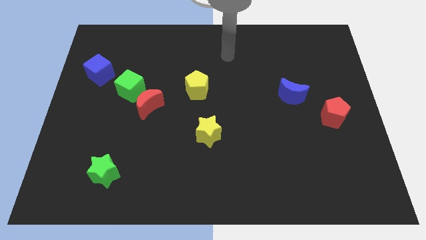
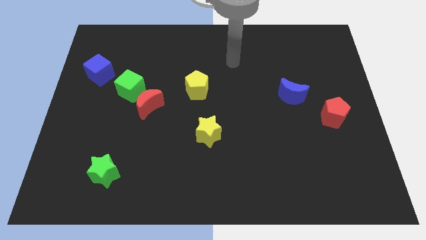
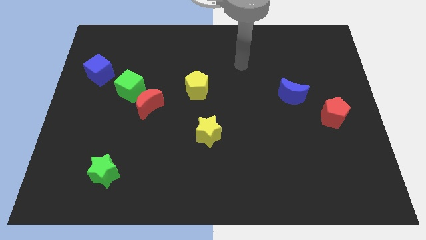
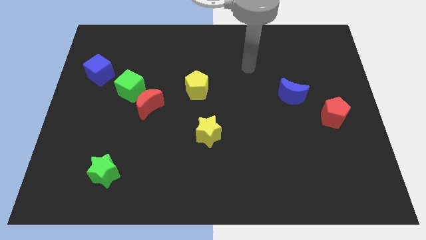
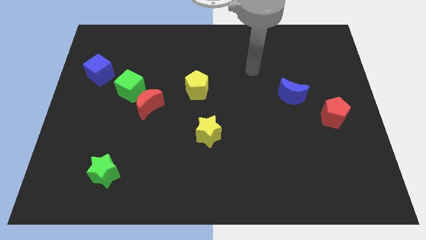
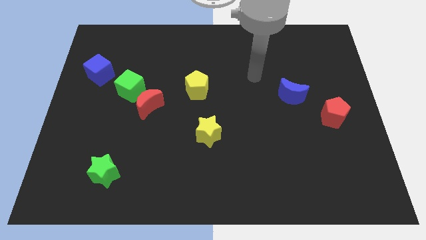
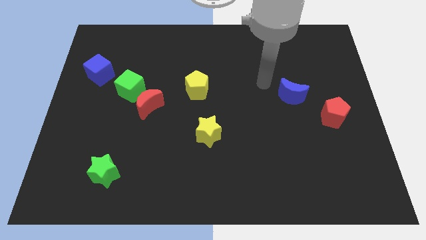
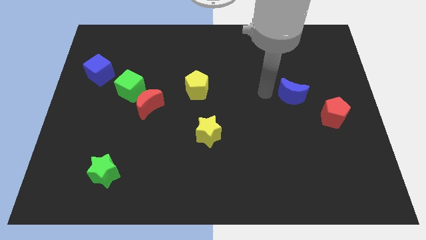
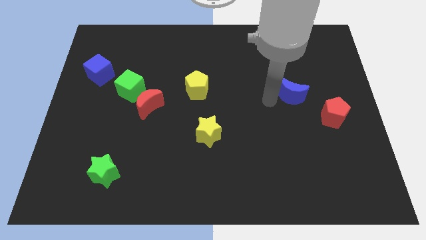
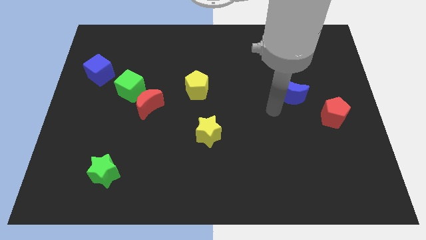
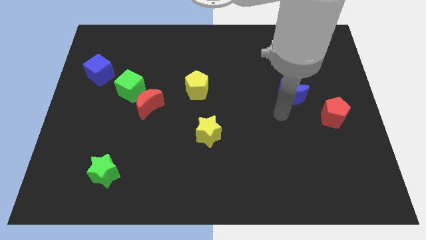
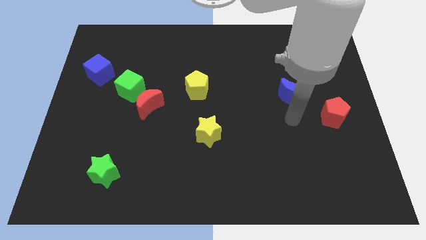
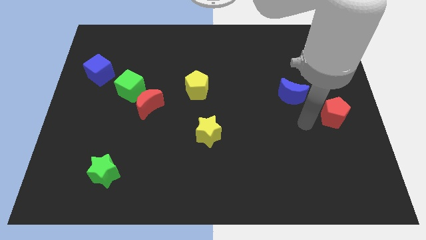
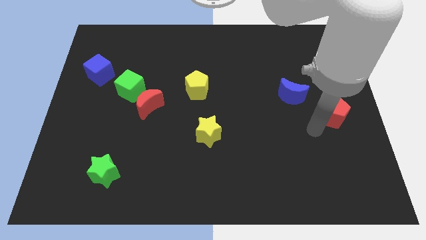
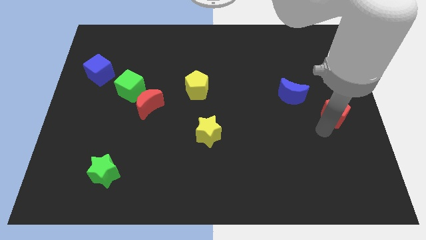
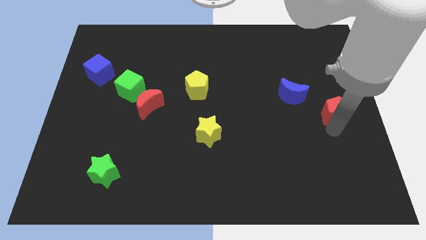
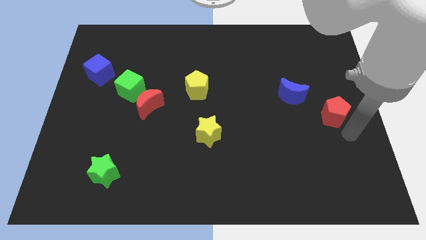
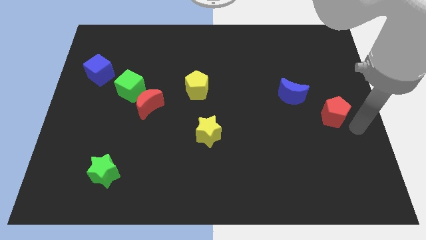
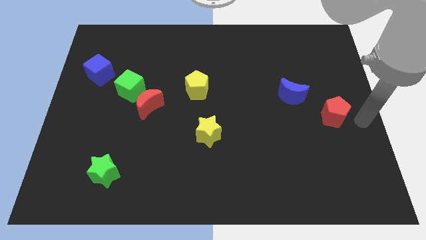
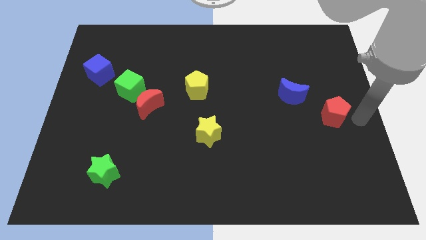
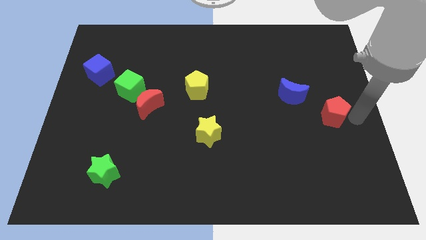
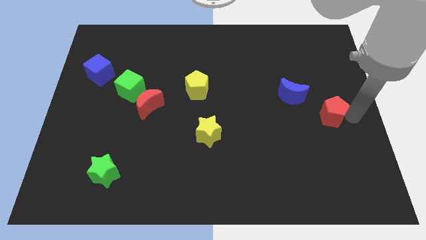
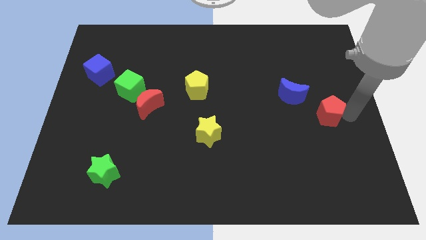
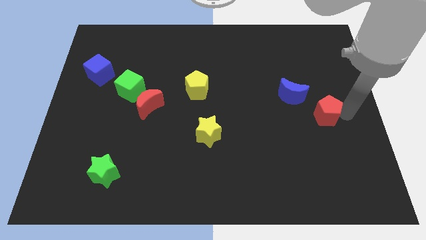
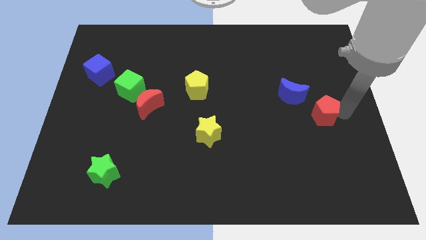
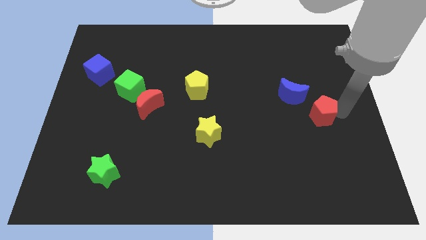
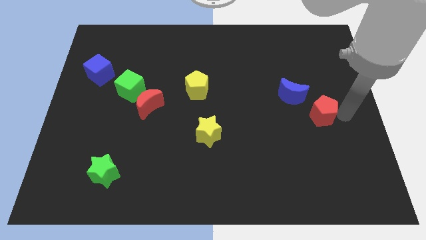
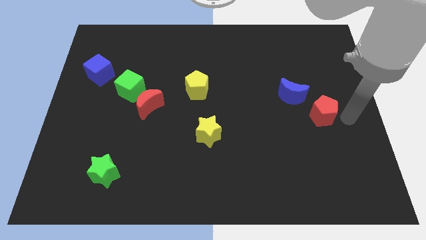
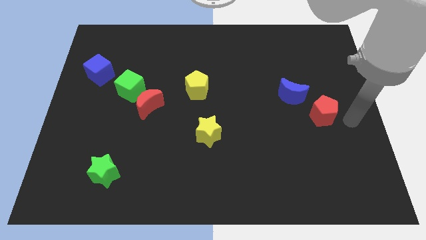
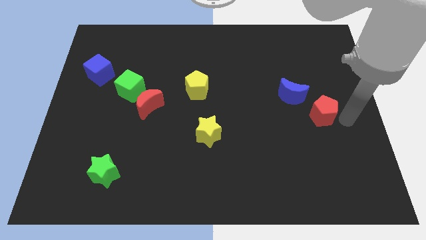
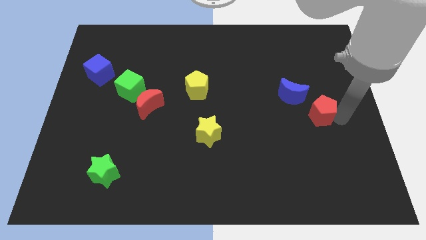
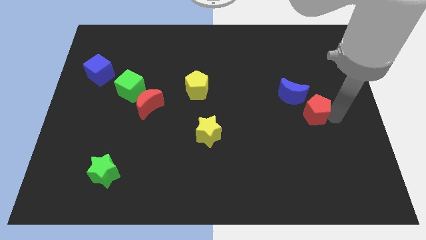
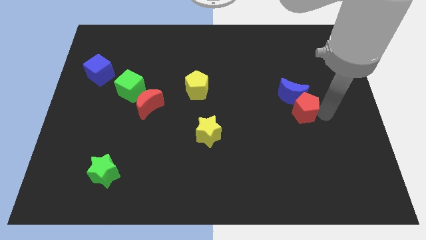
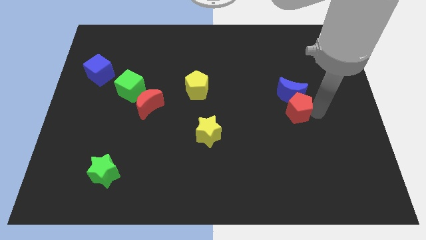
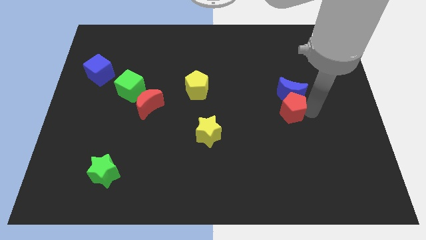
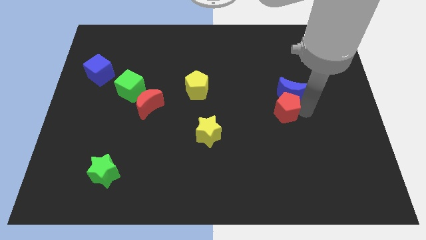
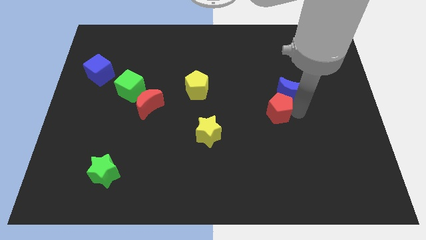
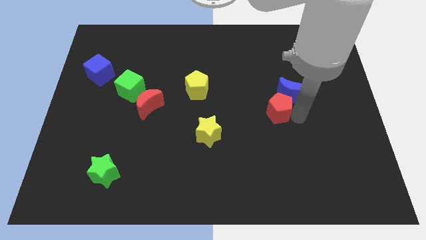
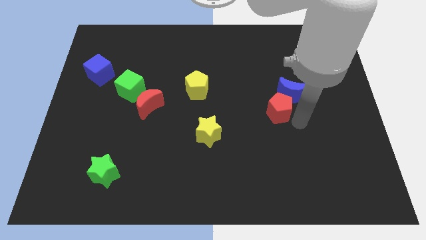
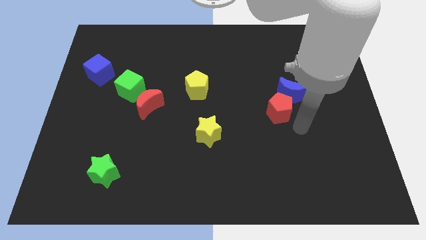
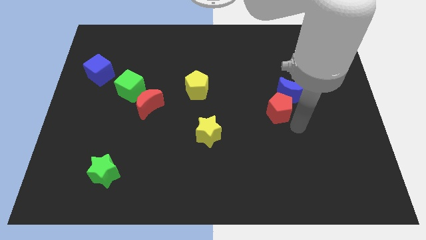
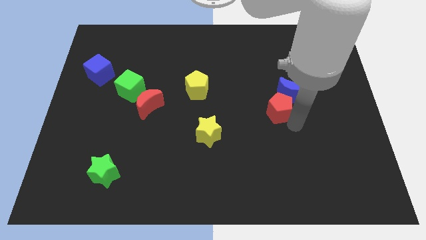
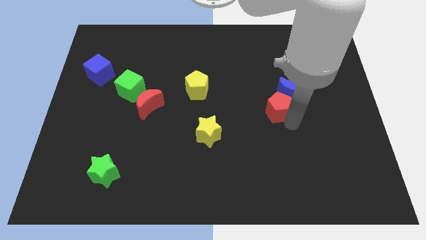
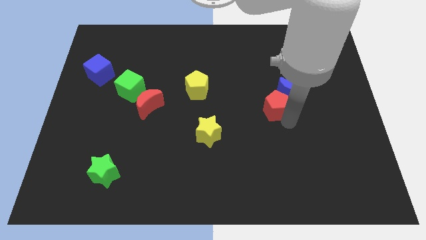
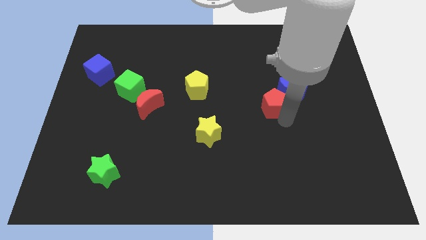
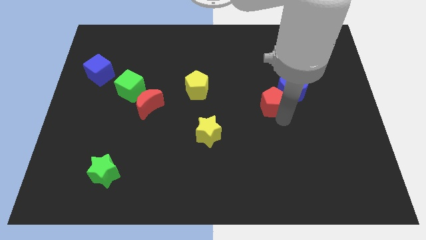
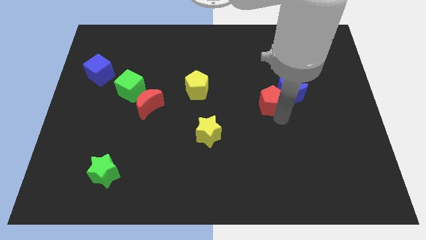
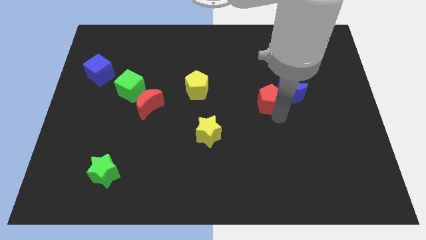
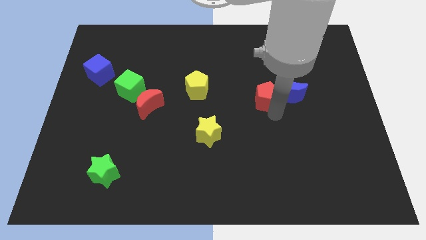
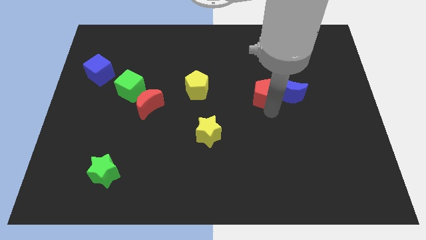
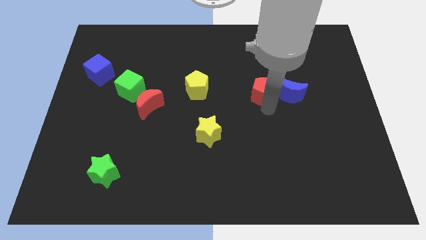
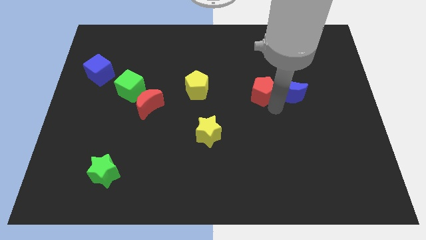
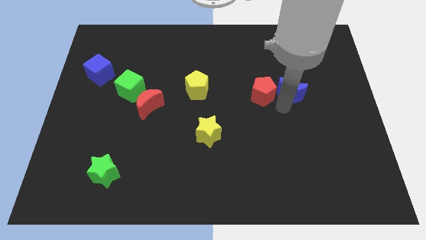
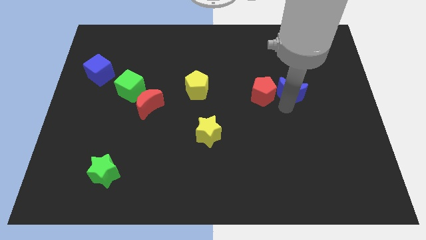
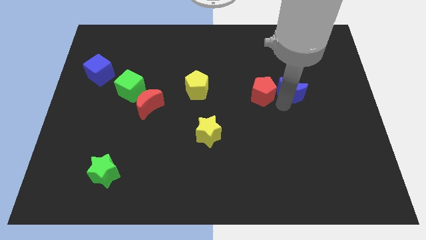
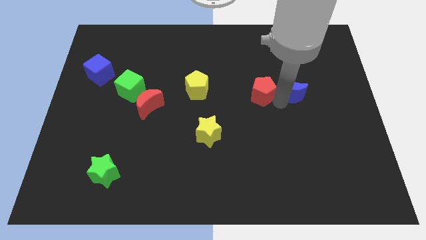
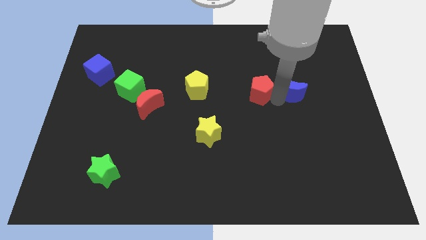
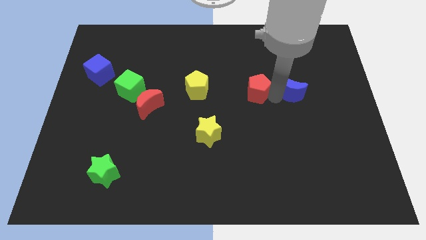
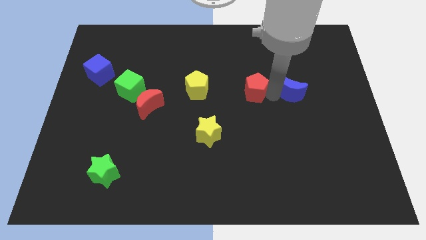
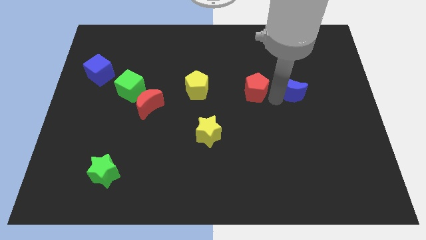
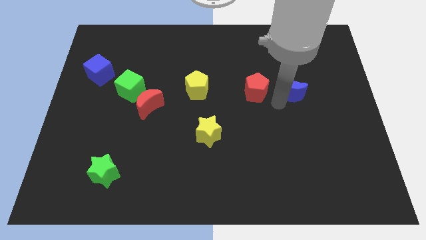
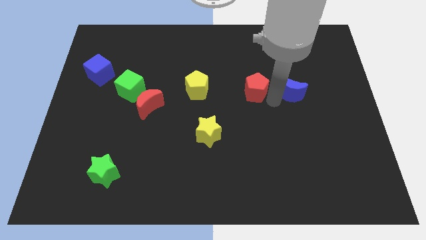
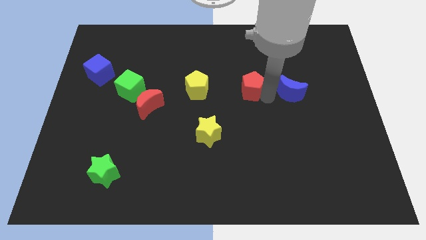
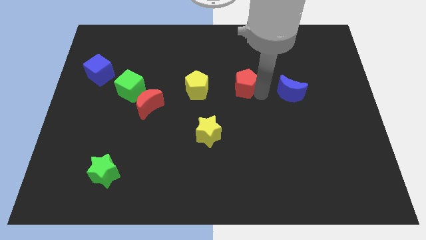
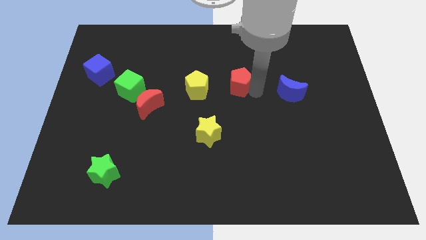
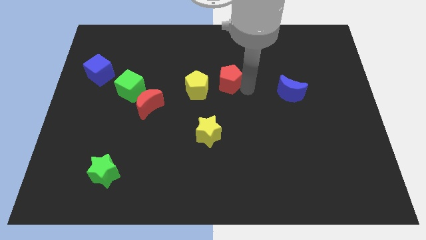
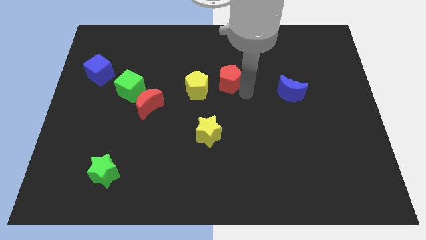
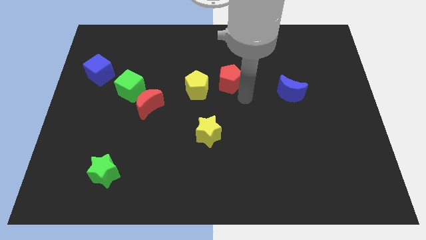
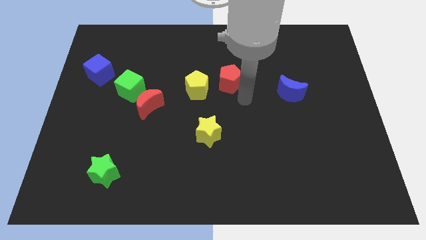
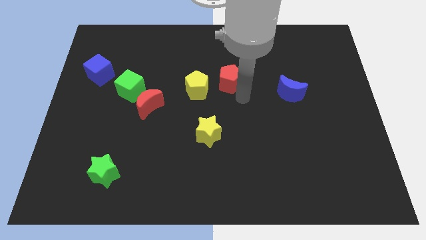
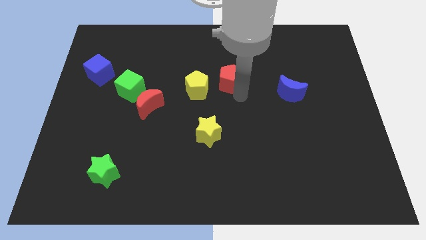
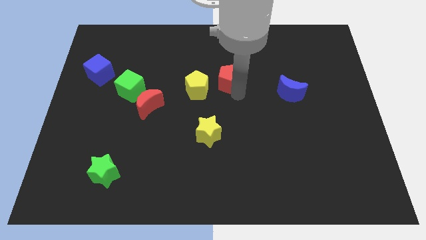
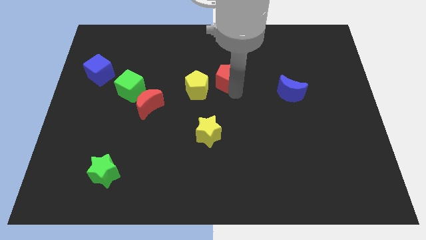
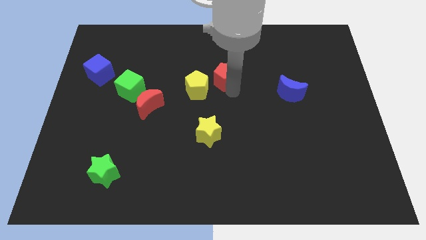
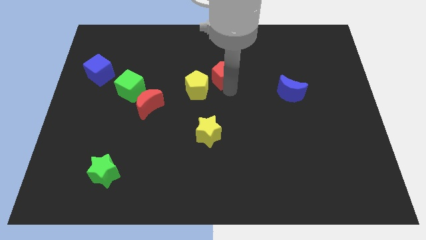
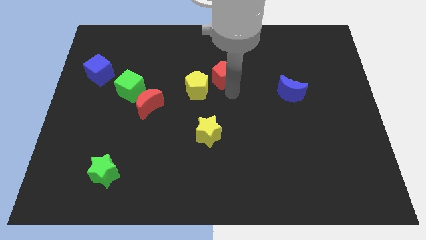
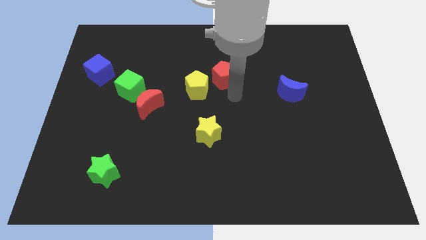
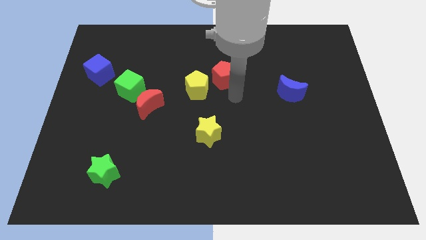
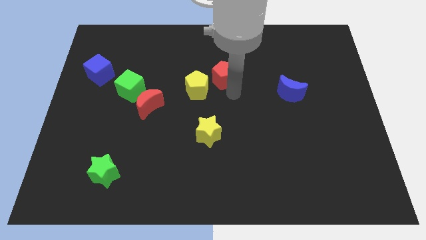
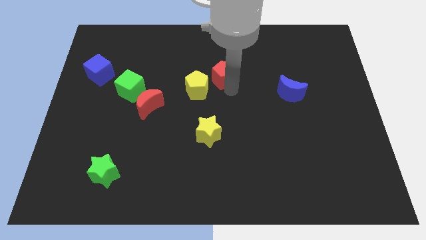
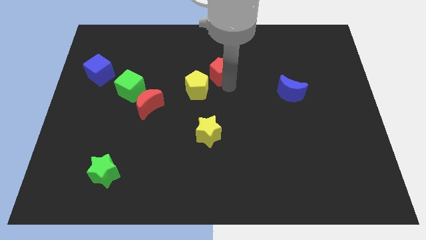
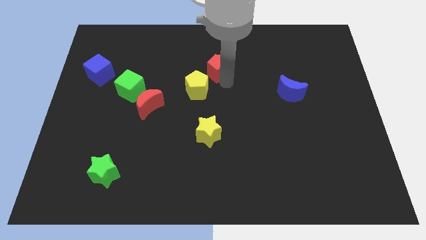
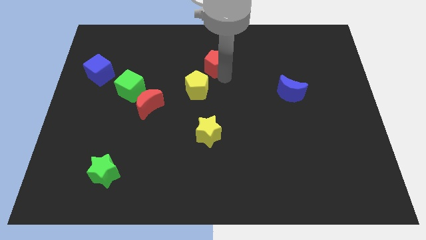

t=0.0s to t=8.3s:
slide the red pentagon above the yellow pentagon
